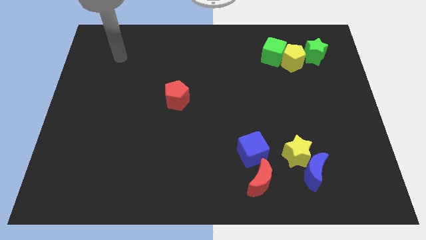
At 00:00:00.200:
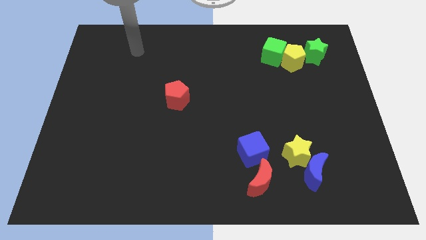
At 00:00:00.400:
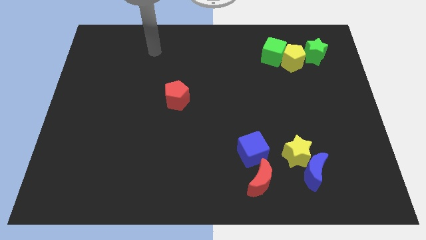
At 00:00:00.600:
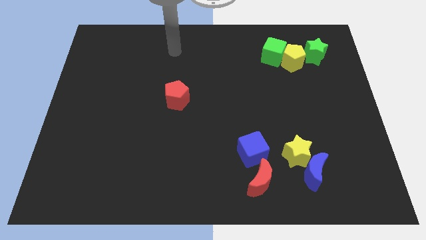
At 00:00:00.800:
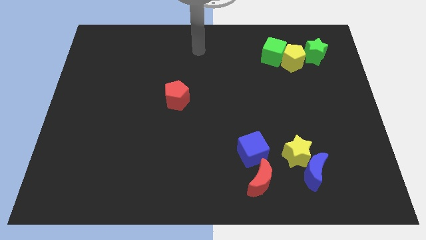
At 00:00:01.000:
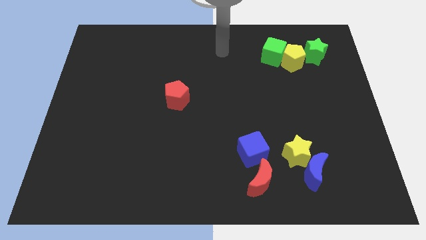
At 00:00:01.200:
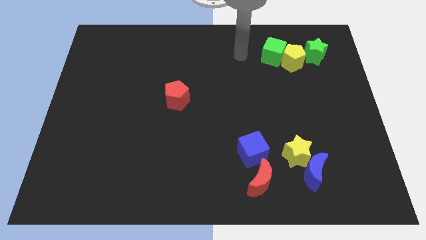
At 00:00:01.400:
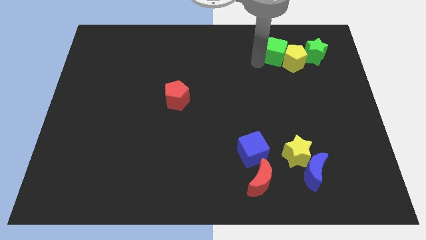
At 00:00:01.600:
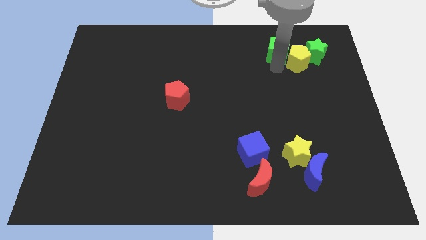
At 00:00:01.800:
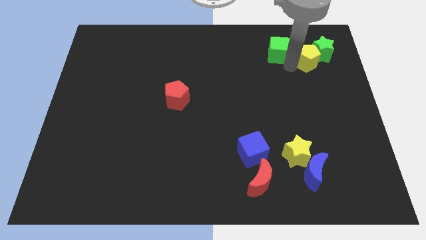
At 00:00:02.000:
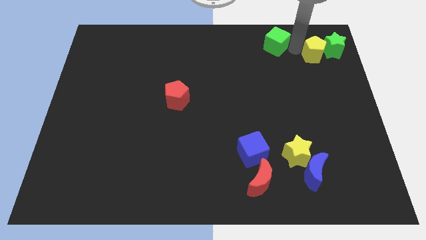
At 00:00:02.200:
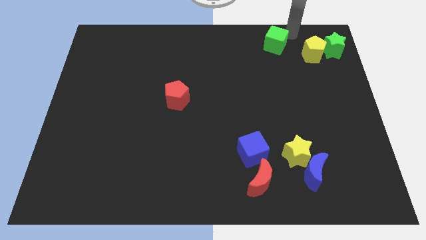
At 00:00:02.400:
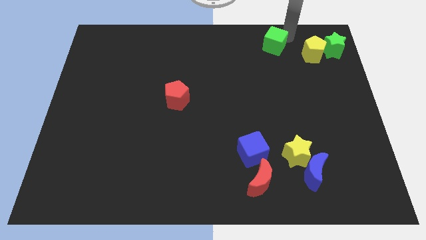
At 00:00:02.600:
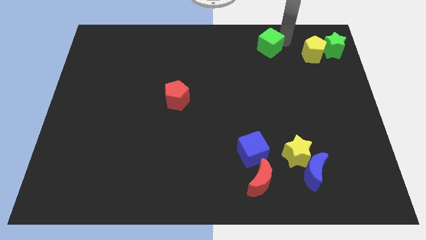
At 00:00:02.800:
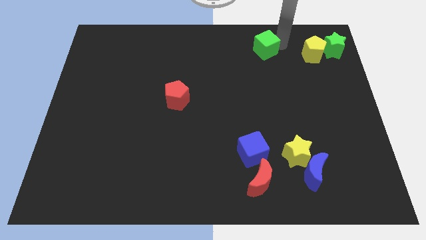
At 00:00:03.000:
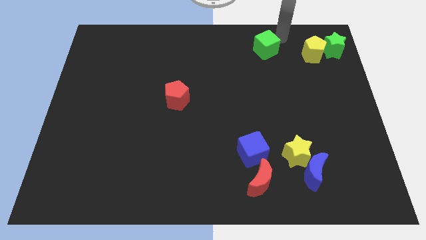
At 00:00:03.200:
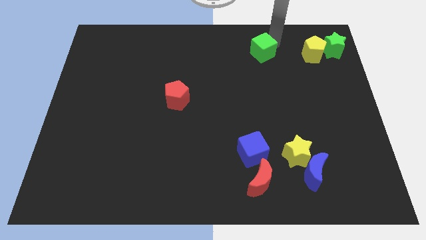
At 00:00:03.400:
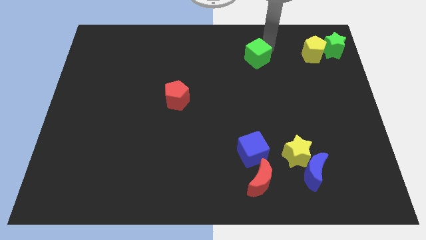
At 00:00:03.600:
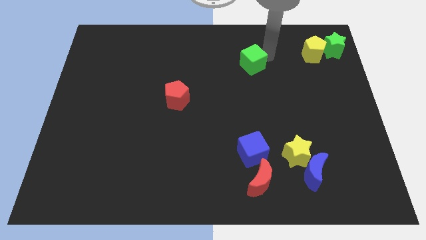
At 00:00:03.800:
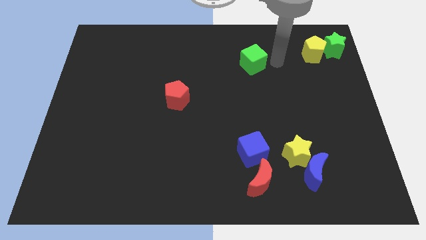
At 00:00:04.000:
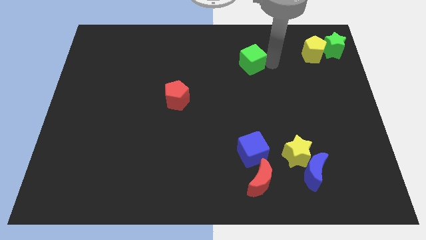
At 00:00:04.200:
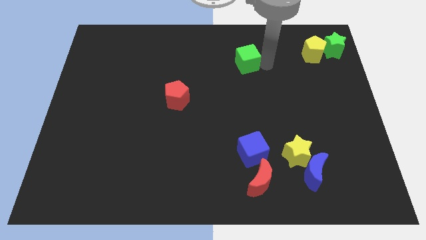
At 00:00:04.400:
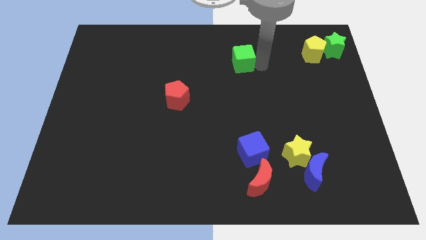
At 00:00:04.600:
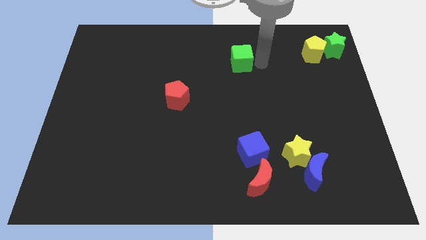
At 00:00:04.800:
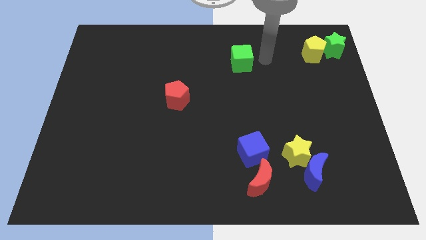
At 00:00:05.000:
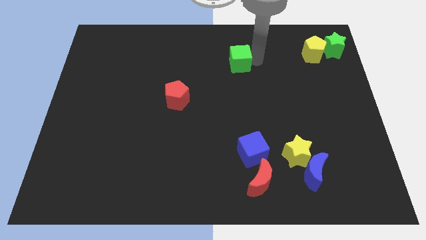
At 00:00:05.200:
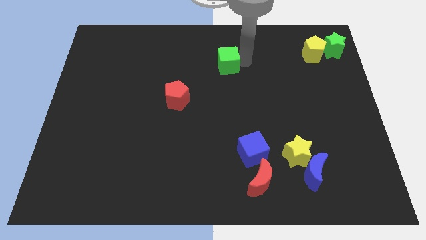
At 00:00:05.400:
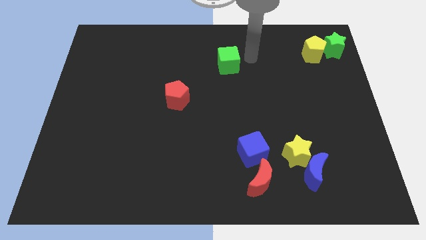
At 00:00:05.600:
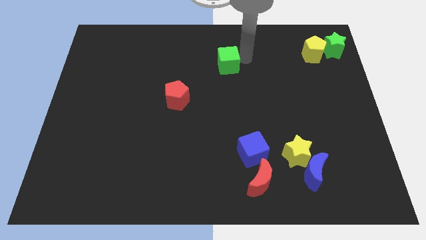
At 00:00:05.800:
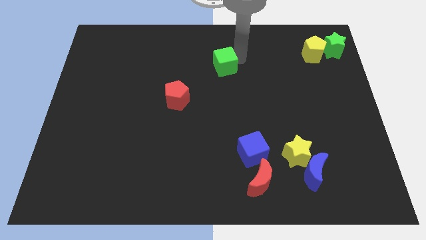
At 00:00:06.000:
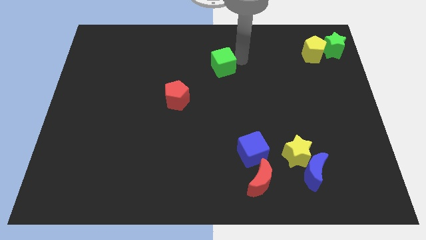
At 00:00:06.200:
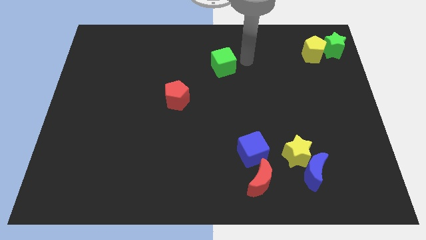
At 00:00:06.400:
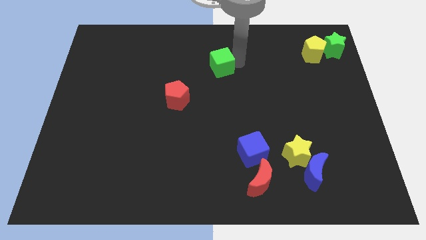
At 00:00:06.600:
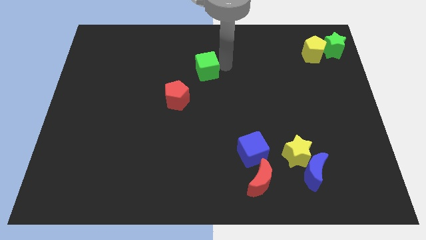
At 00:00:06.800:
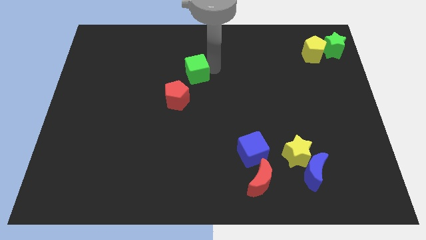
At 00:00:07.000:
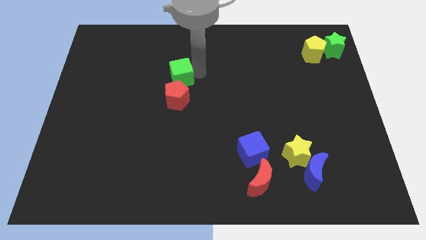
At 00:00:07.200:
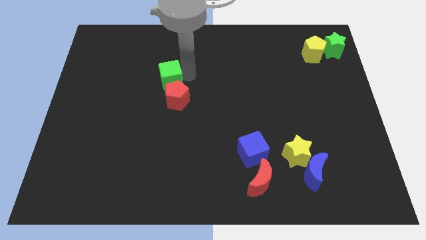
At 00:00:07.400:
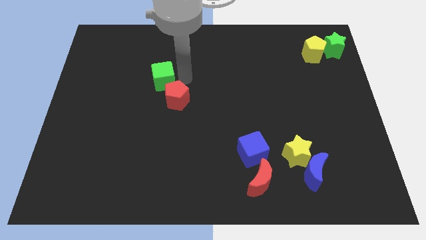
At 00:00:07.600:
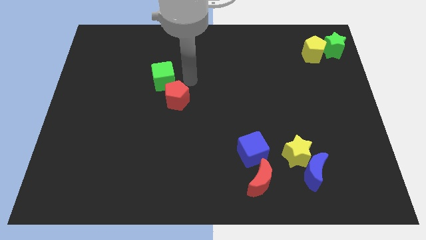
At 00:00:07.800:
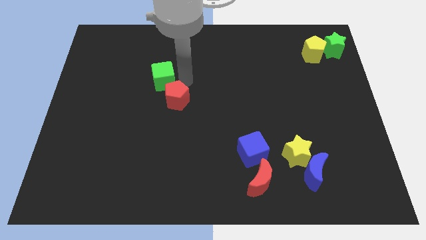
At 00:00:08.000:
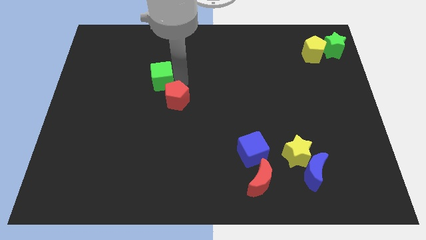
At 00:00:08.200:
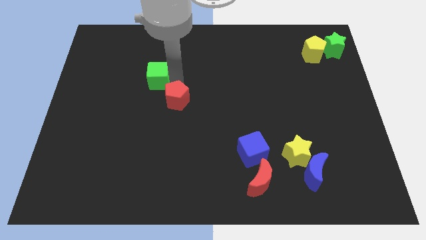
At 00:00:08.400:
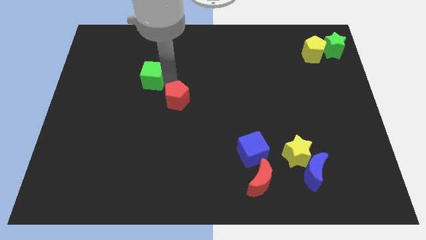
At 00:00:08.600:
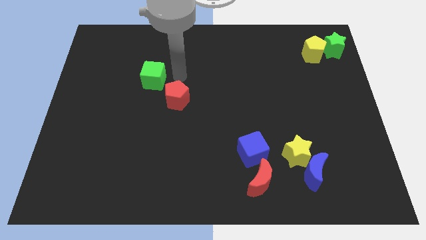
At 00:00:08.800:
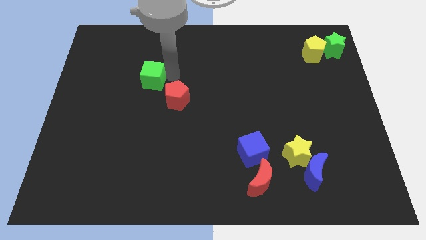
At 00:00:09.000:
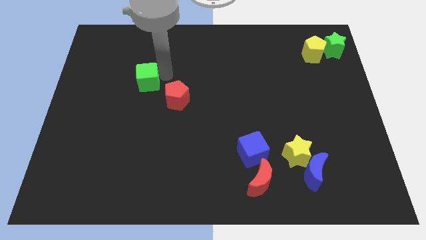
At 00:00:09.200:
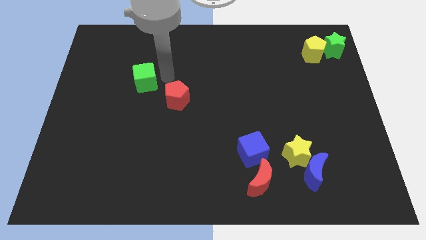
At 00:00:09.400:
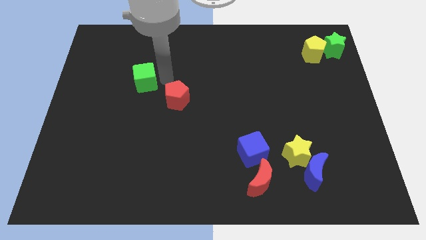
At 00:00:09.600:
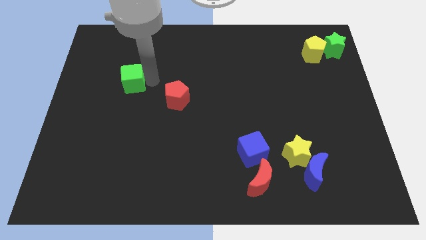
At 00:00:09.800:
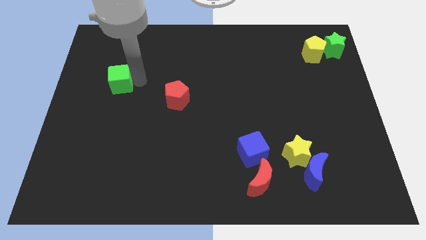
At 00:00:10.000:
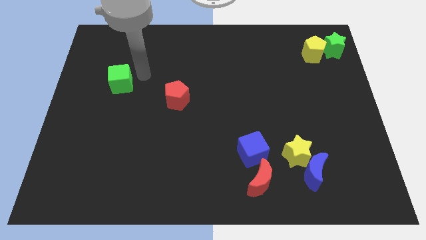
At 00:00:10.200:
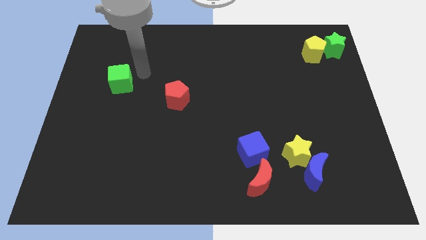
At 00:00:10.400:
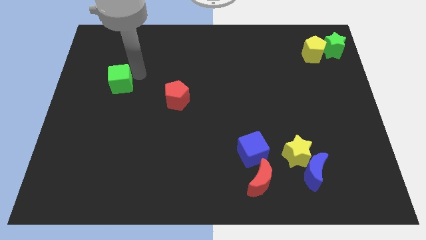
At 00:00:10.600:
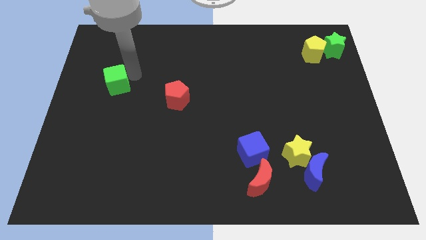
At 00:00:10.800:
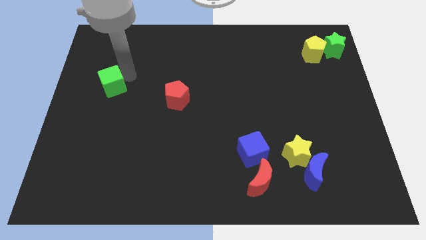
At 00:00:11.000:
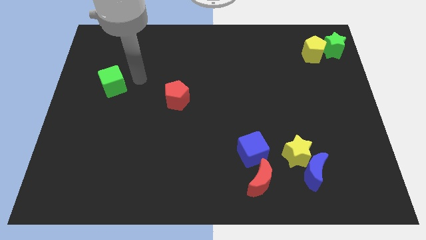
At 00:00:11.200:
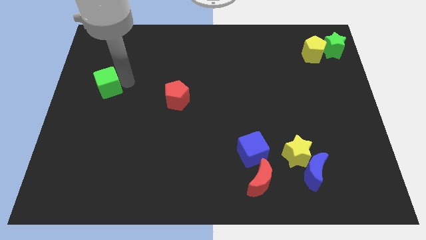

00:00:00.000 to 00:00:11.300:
push the green cube to the left side of the board
